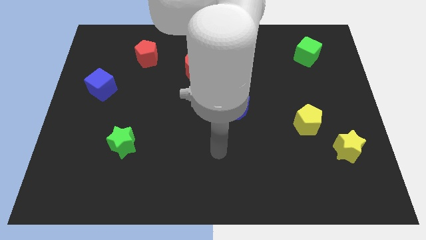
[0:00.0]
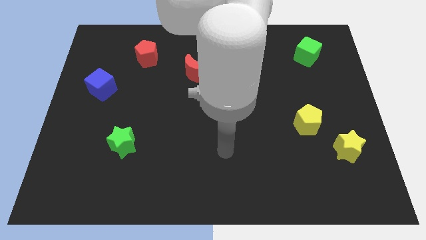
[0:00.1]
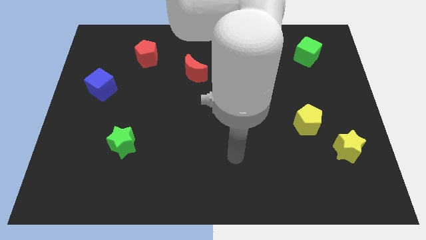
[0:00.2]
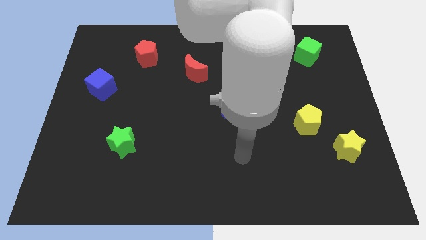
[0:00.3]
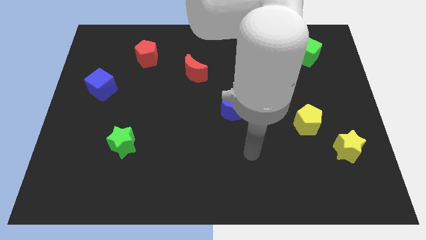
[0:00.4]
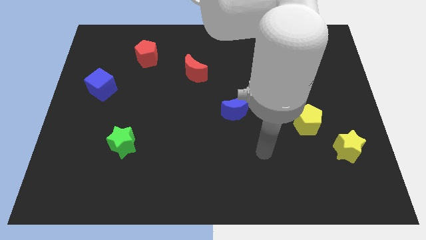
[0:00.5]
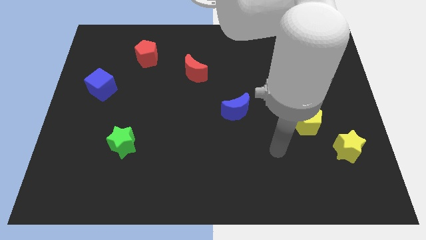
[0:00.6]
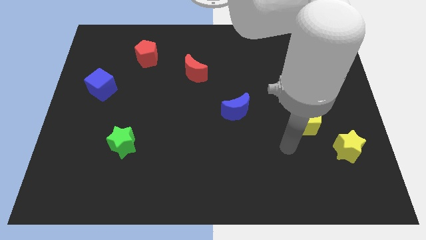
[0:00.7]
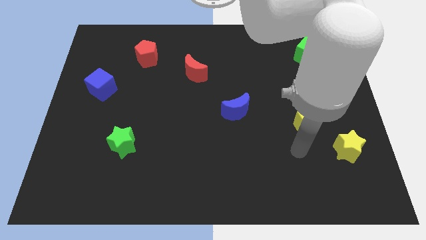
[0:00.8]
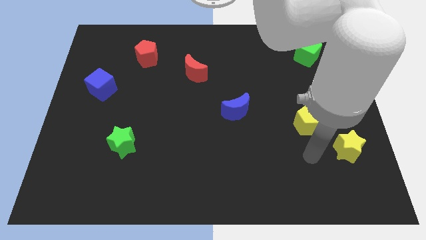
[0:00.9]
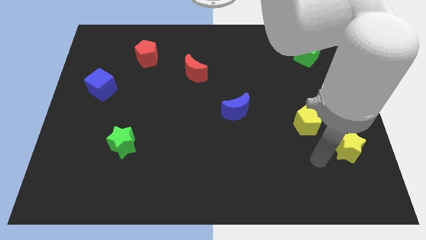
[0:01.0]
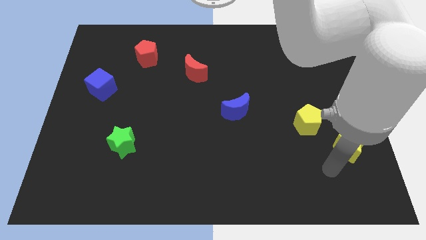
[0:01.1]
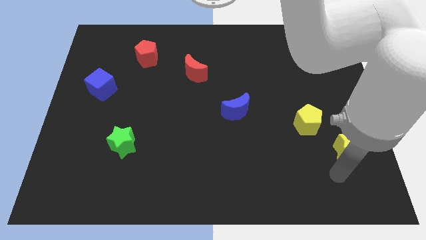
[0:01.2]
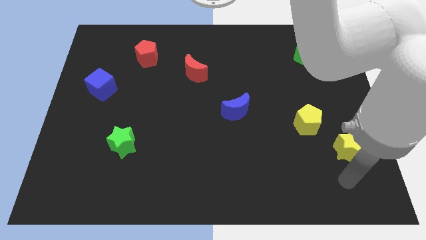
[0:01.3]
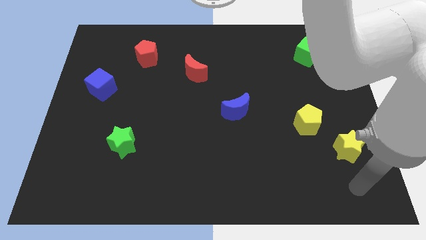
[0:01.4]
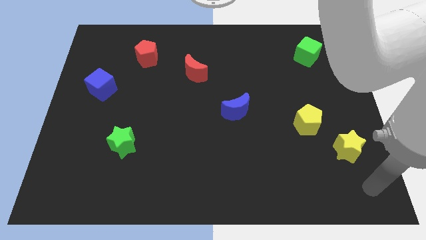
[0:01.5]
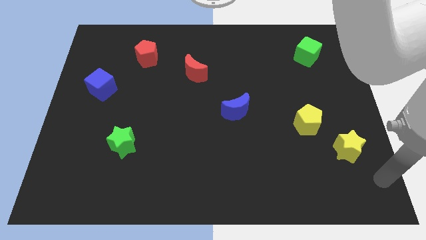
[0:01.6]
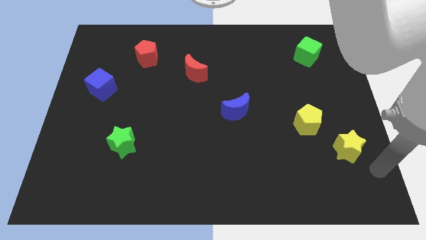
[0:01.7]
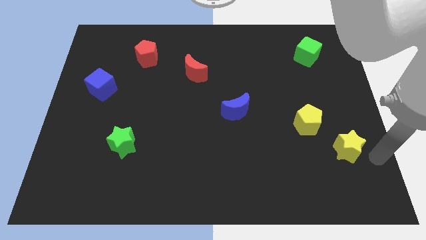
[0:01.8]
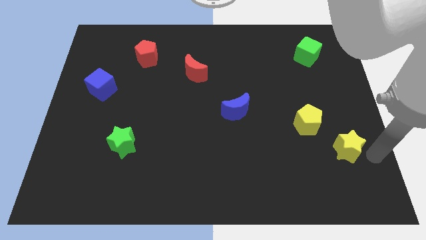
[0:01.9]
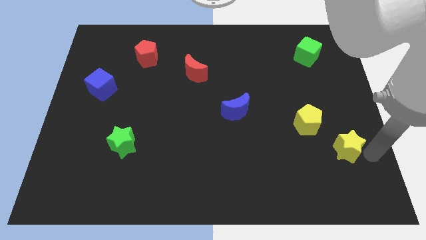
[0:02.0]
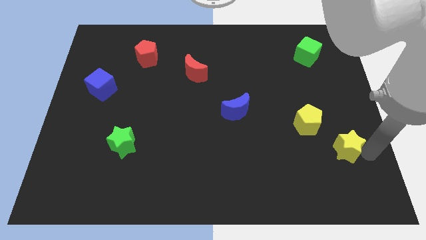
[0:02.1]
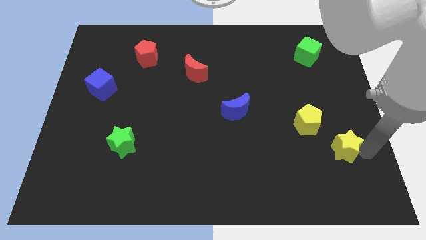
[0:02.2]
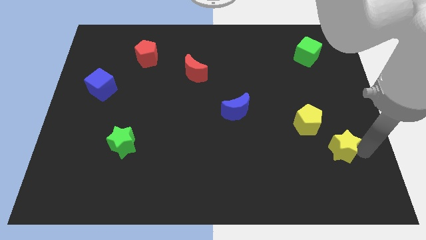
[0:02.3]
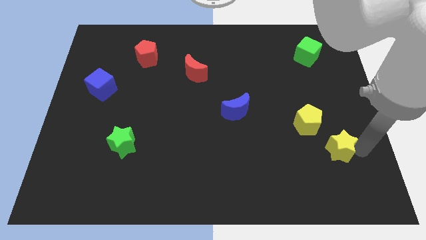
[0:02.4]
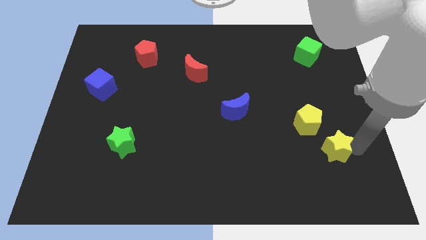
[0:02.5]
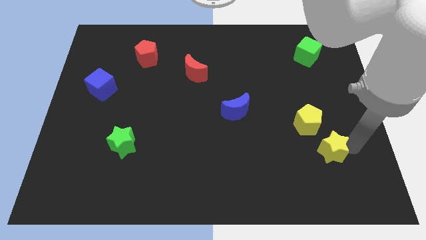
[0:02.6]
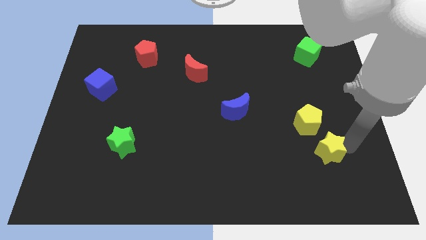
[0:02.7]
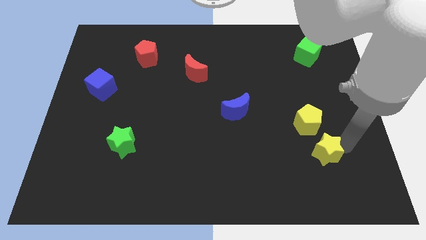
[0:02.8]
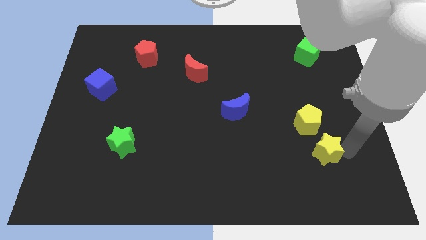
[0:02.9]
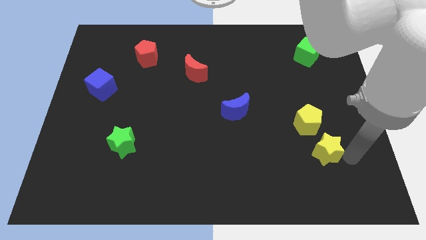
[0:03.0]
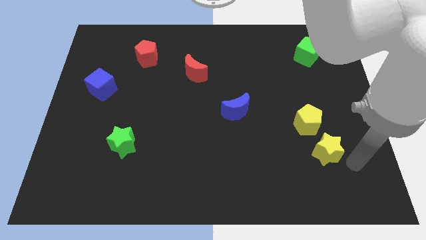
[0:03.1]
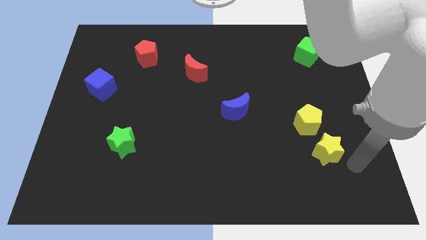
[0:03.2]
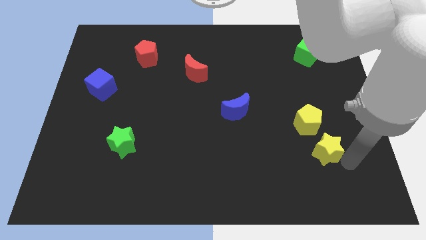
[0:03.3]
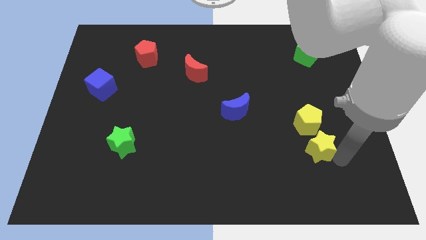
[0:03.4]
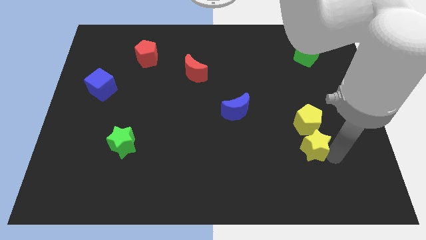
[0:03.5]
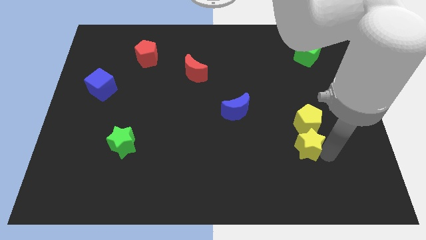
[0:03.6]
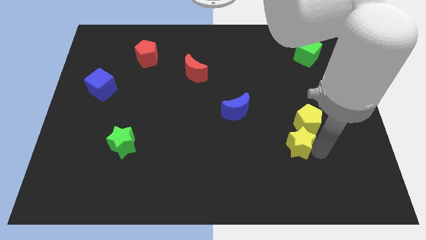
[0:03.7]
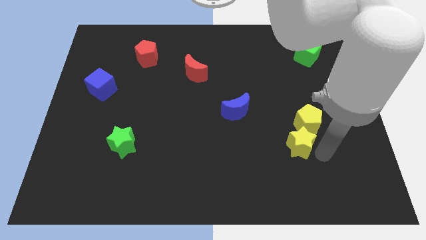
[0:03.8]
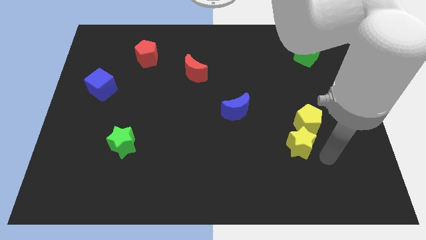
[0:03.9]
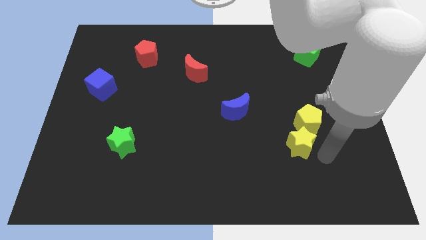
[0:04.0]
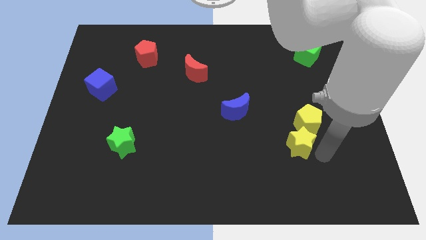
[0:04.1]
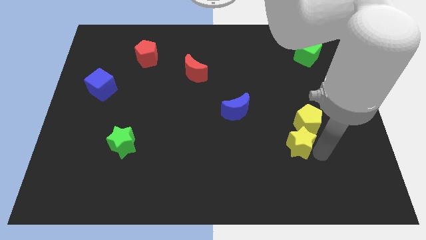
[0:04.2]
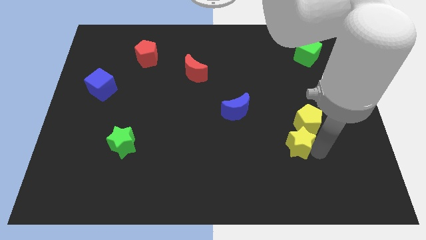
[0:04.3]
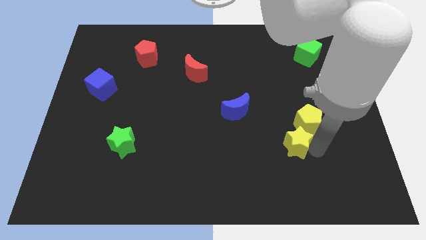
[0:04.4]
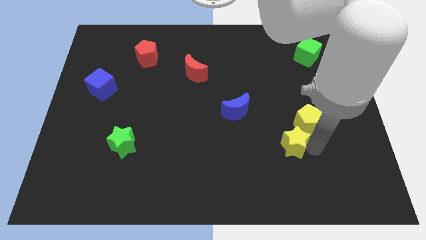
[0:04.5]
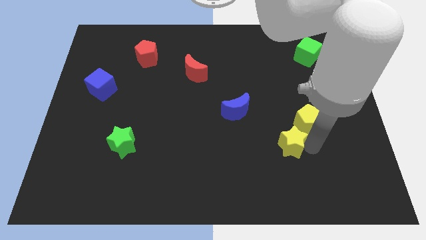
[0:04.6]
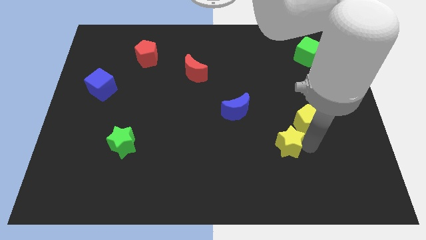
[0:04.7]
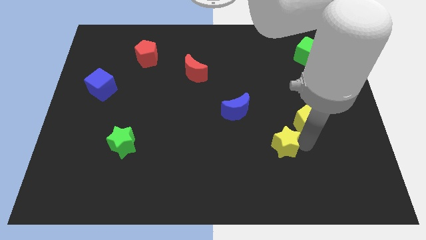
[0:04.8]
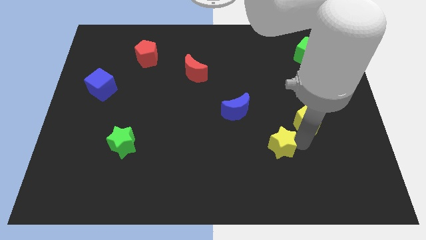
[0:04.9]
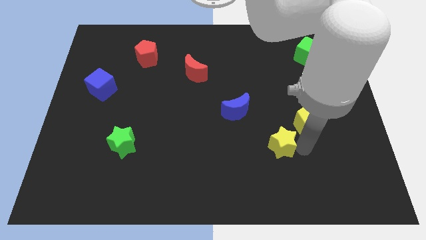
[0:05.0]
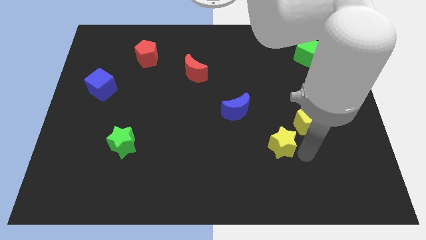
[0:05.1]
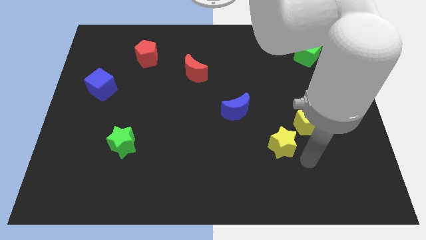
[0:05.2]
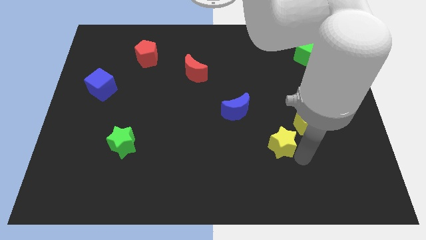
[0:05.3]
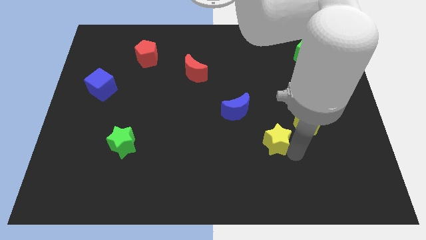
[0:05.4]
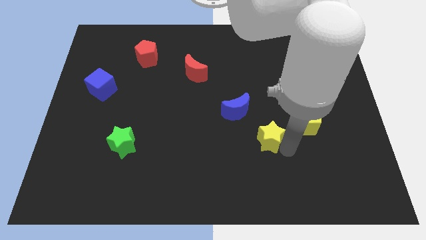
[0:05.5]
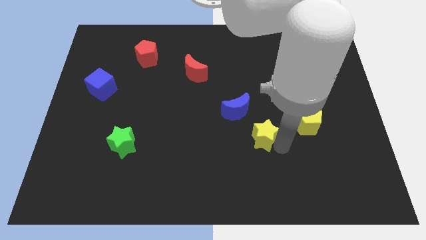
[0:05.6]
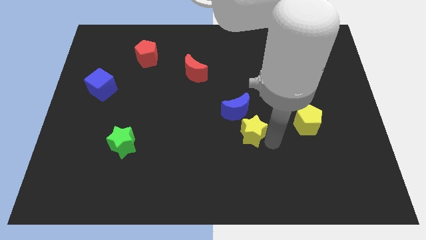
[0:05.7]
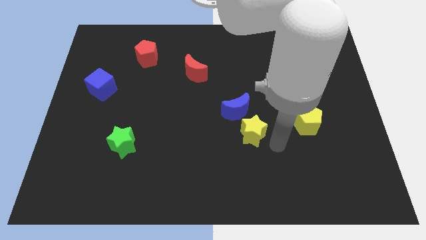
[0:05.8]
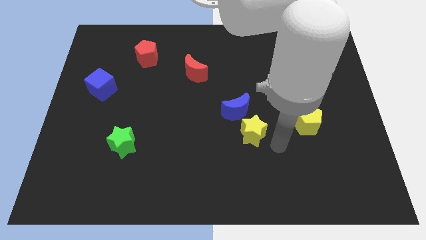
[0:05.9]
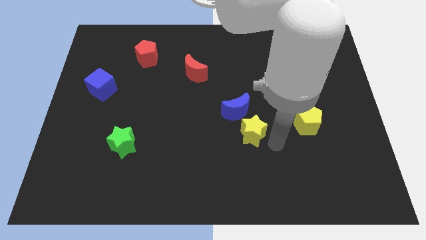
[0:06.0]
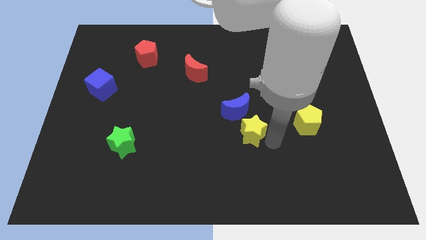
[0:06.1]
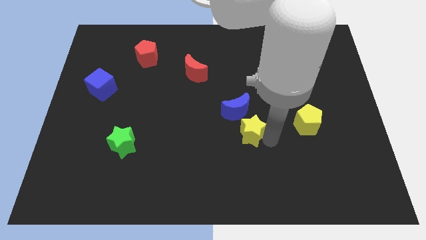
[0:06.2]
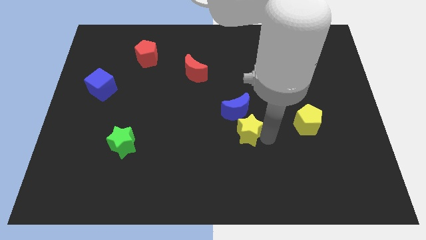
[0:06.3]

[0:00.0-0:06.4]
put the yellow star to the middle of the board
